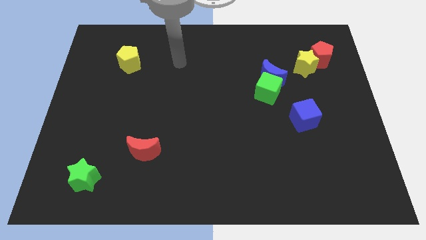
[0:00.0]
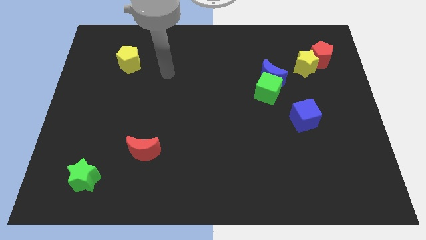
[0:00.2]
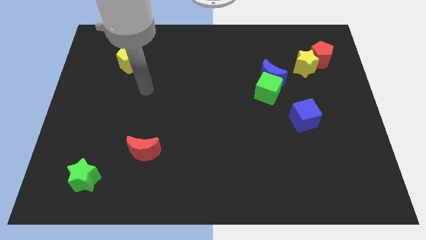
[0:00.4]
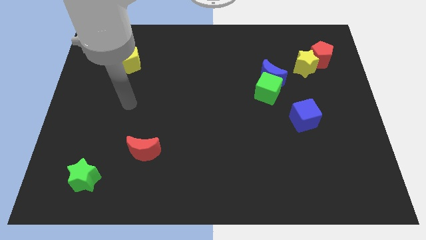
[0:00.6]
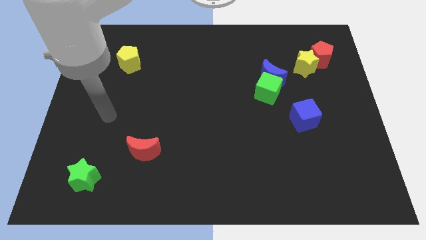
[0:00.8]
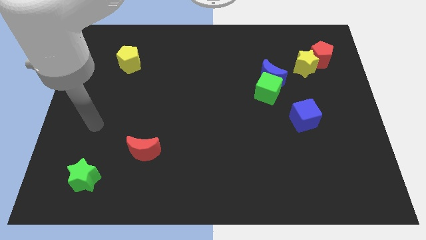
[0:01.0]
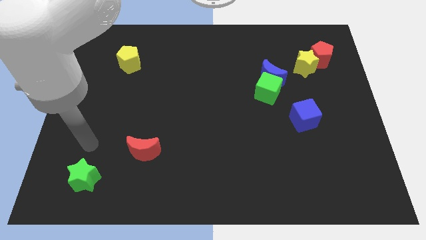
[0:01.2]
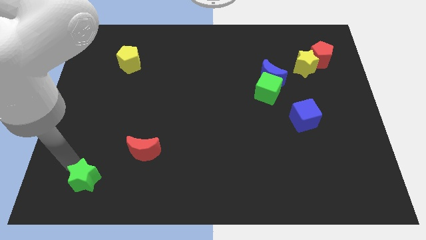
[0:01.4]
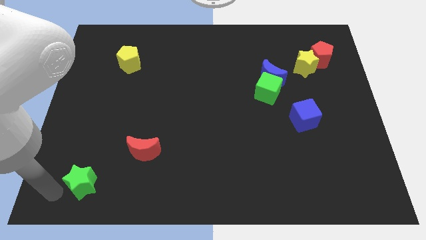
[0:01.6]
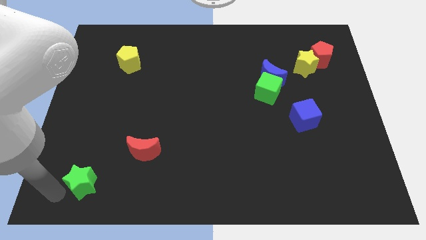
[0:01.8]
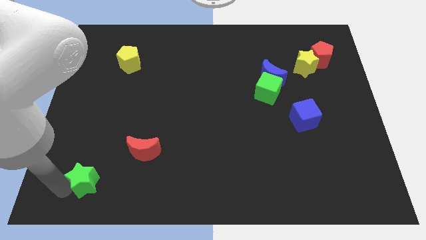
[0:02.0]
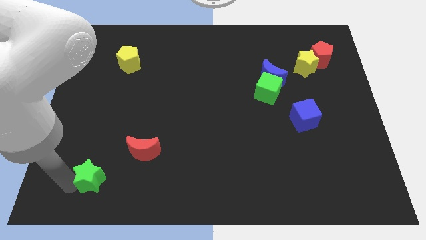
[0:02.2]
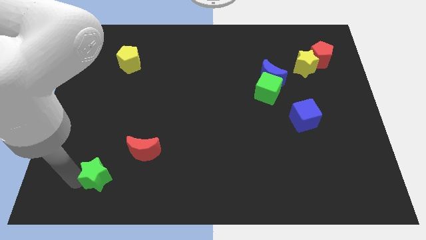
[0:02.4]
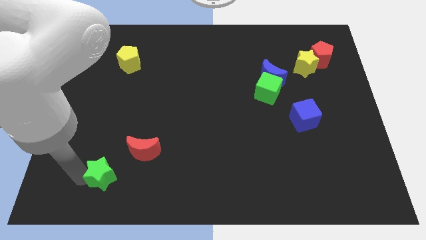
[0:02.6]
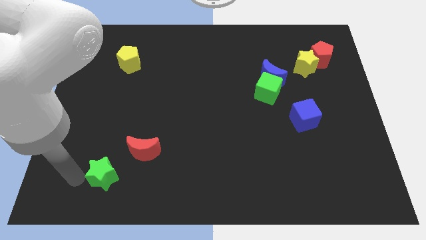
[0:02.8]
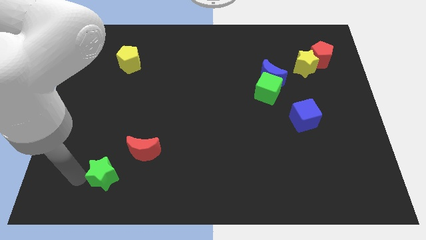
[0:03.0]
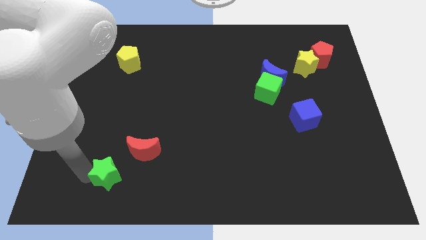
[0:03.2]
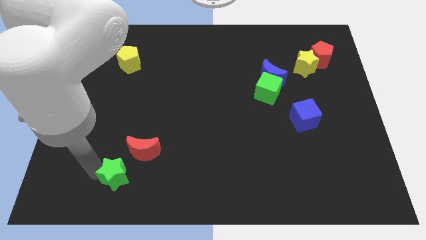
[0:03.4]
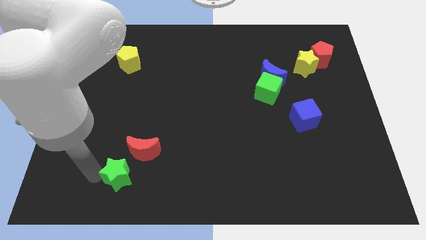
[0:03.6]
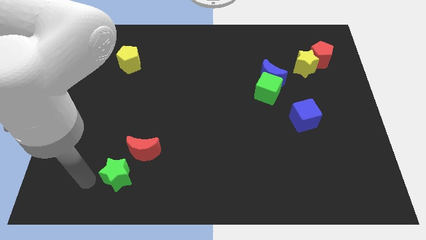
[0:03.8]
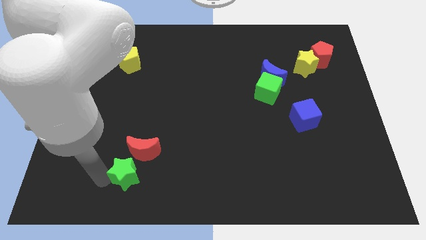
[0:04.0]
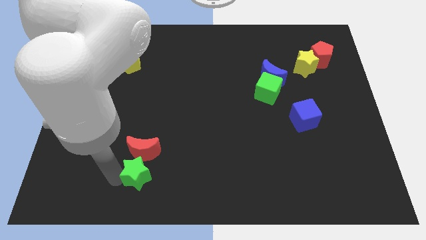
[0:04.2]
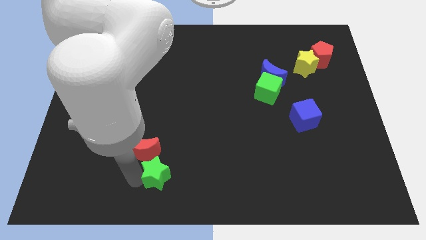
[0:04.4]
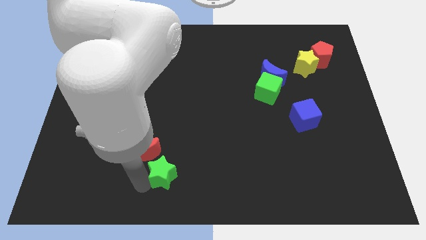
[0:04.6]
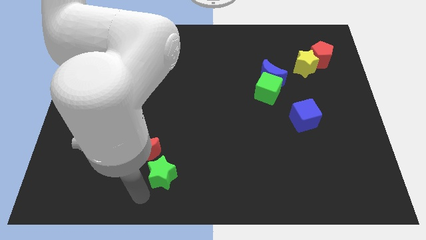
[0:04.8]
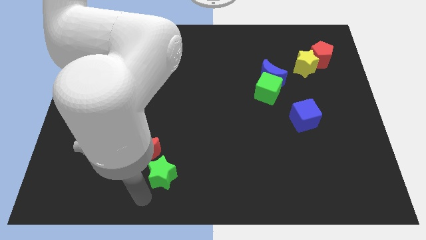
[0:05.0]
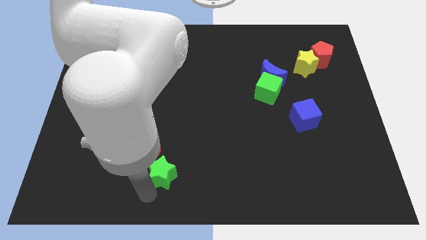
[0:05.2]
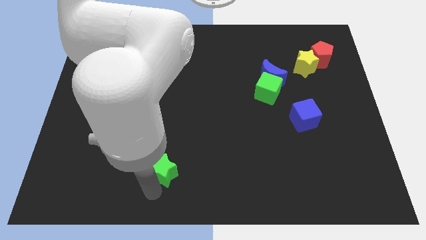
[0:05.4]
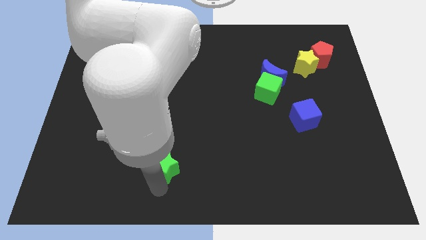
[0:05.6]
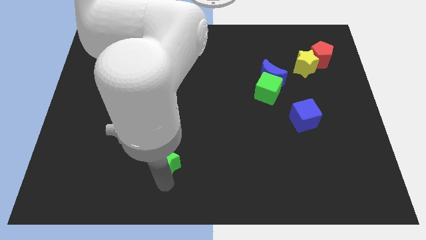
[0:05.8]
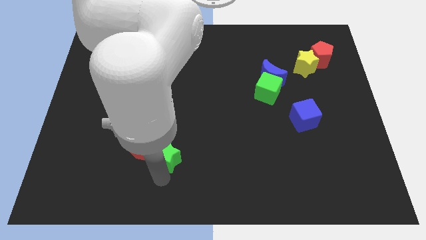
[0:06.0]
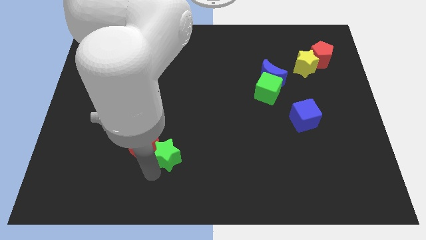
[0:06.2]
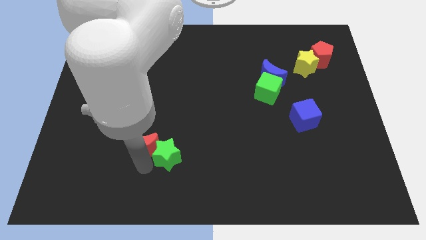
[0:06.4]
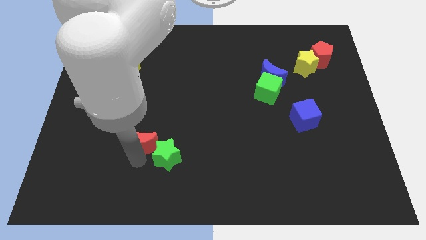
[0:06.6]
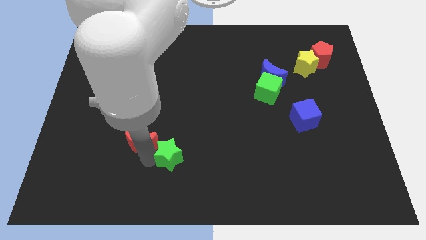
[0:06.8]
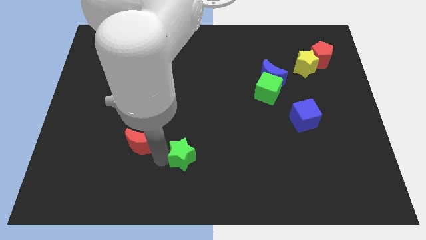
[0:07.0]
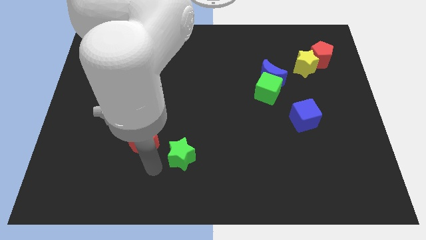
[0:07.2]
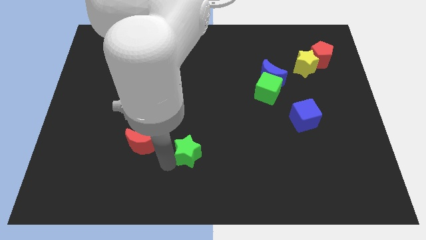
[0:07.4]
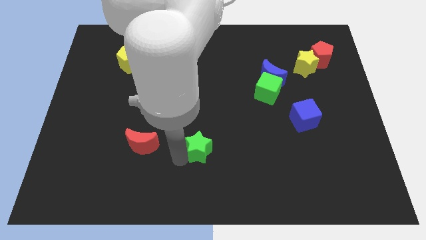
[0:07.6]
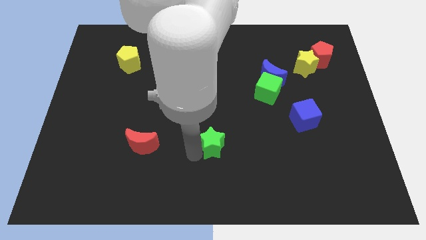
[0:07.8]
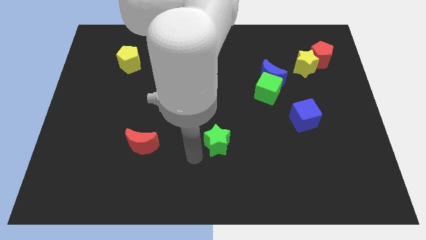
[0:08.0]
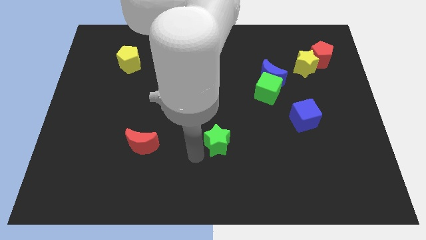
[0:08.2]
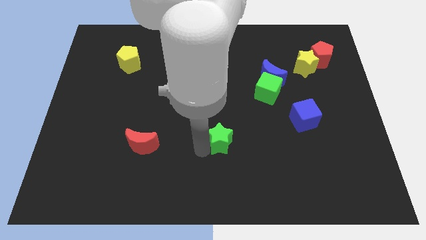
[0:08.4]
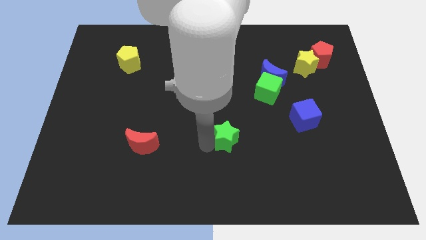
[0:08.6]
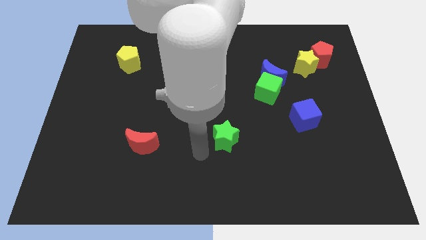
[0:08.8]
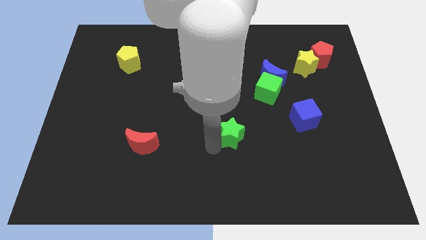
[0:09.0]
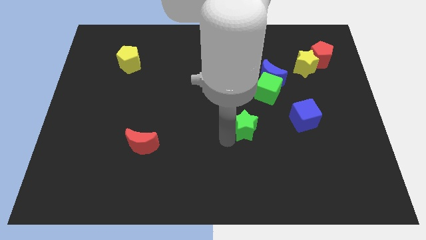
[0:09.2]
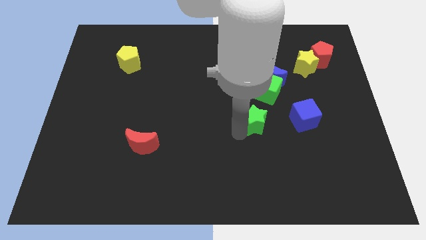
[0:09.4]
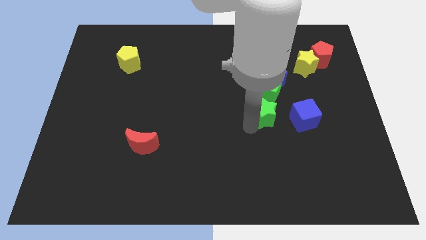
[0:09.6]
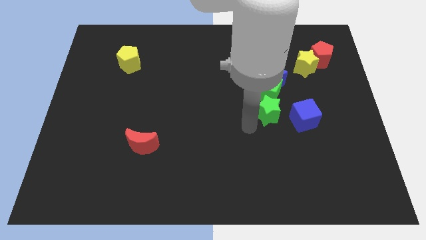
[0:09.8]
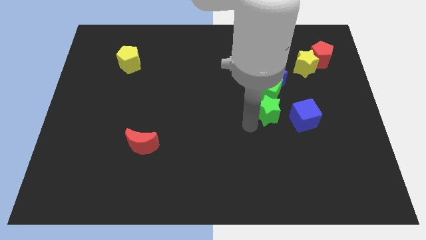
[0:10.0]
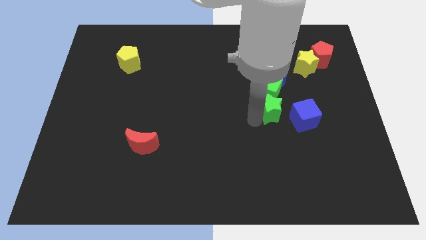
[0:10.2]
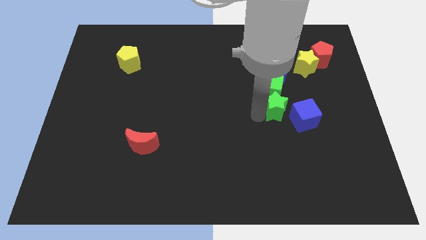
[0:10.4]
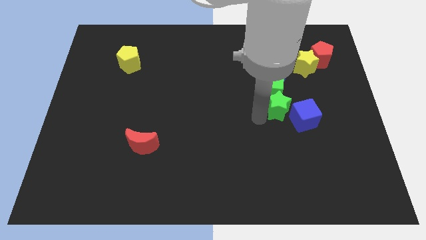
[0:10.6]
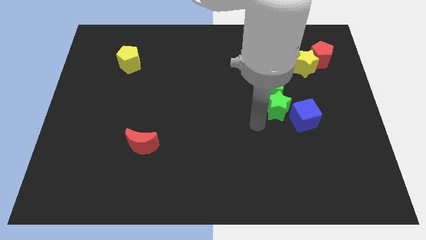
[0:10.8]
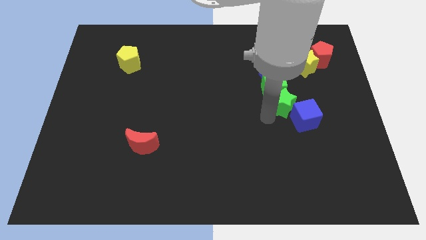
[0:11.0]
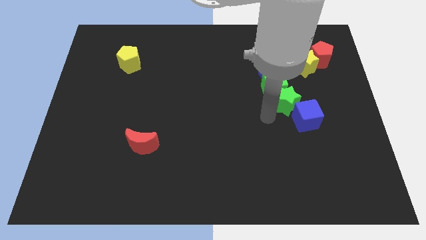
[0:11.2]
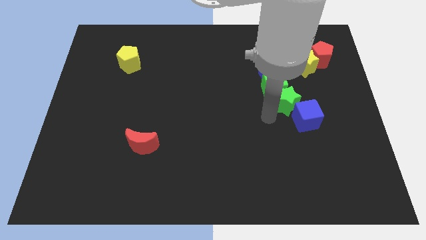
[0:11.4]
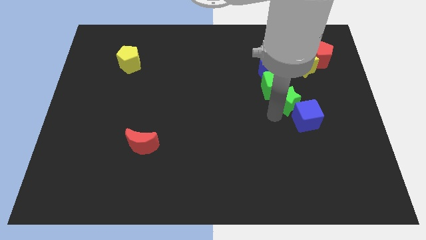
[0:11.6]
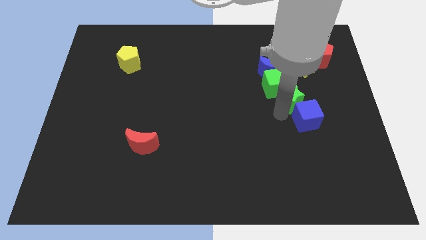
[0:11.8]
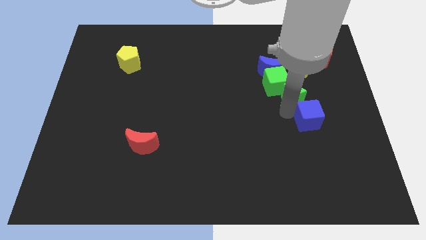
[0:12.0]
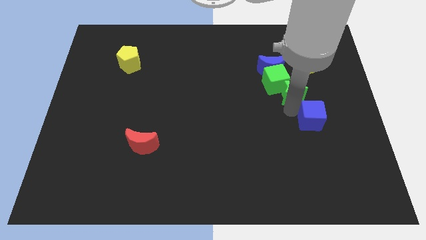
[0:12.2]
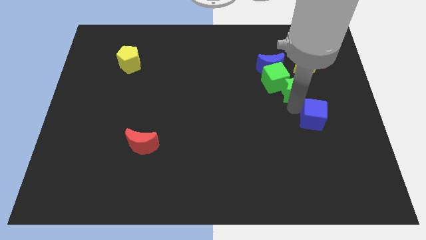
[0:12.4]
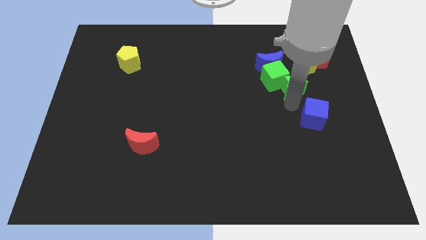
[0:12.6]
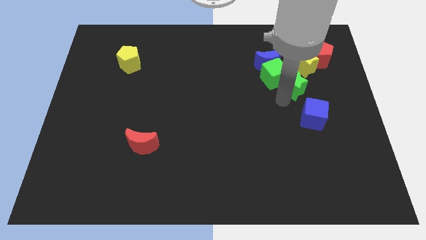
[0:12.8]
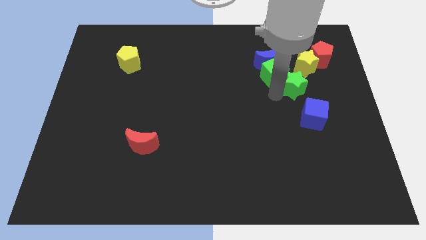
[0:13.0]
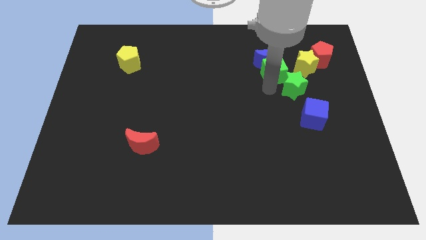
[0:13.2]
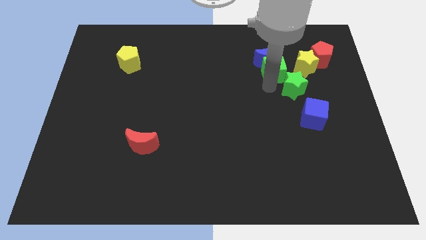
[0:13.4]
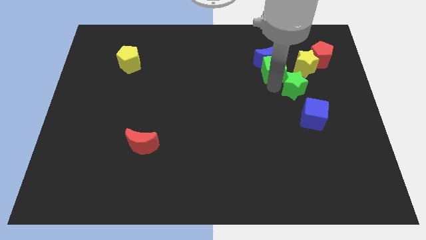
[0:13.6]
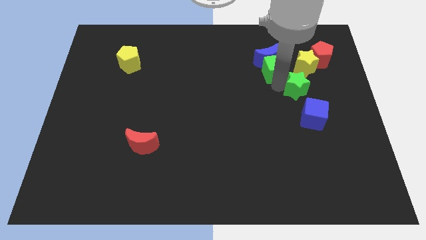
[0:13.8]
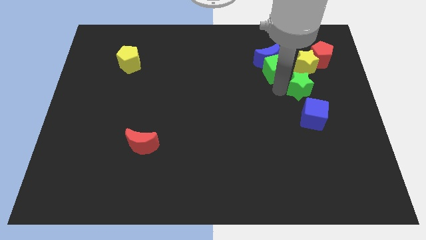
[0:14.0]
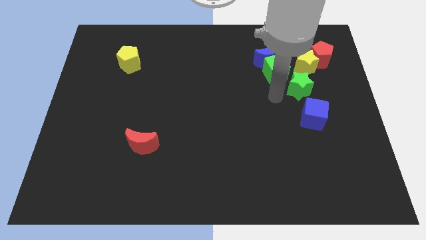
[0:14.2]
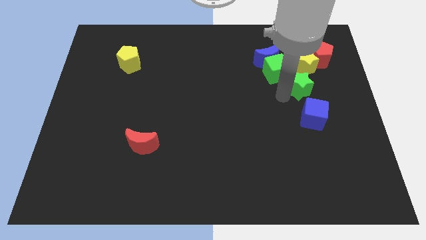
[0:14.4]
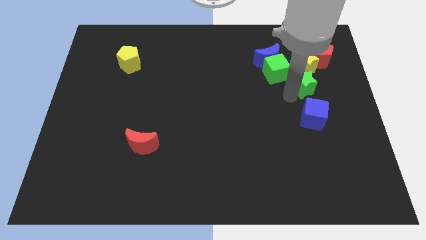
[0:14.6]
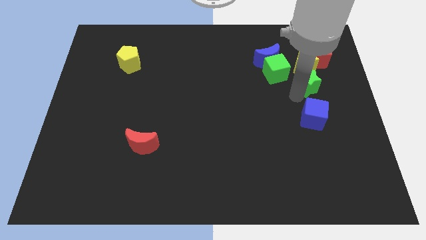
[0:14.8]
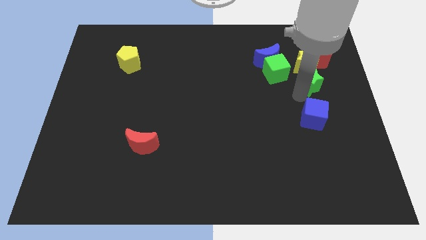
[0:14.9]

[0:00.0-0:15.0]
move the green star diagonally down and to the right of the yellow star
